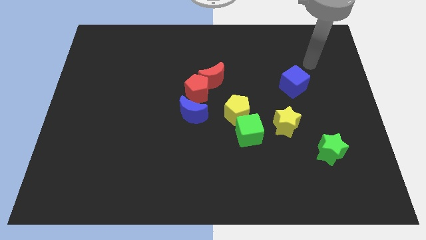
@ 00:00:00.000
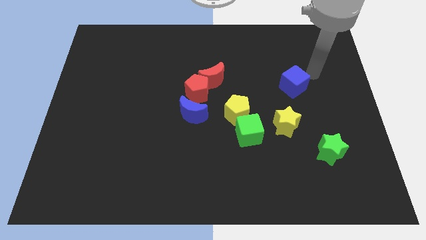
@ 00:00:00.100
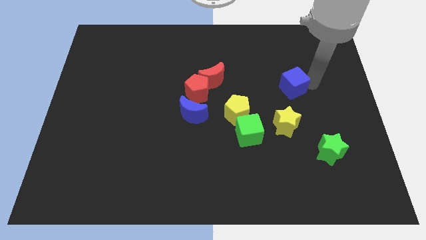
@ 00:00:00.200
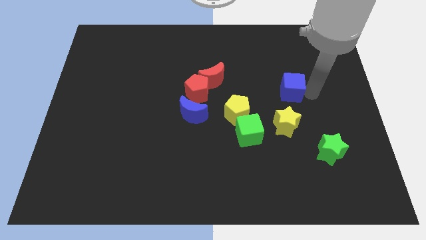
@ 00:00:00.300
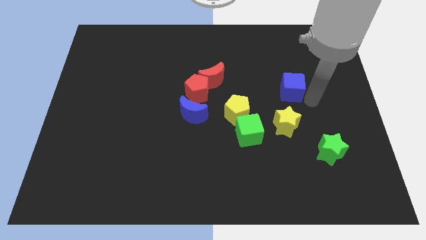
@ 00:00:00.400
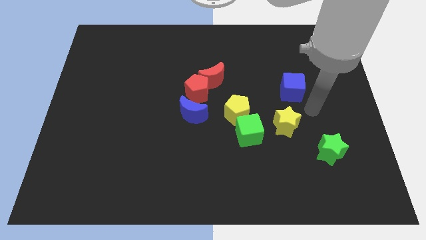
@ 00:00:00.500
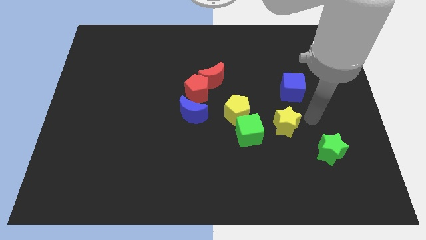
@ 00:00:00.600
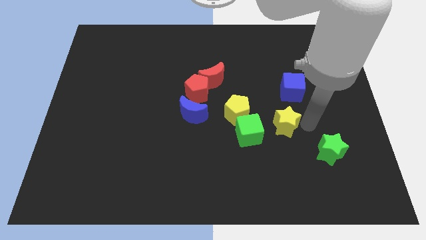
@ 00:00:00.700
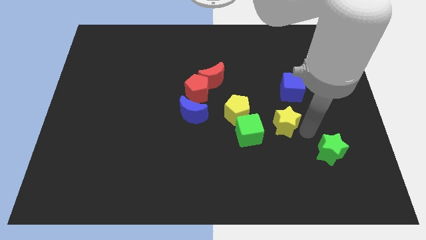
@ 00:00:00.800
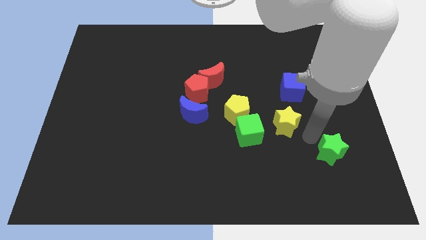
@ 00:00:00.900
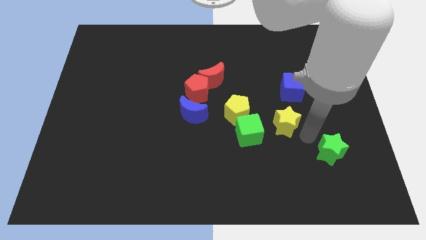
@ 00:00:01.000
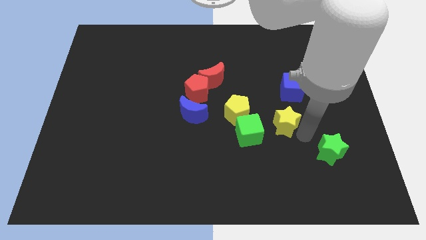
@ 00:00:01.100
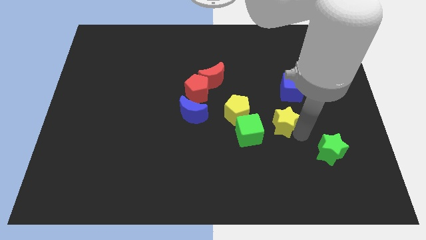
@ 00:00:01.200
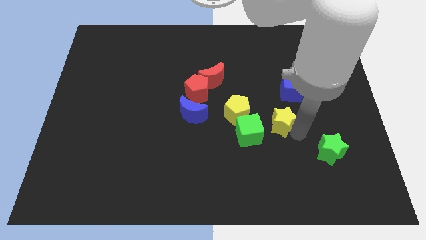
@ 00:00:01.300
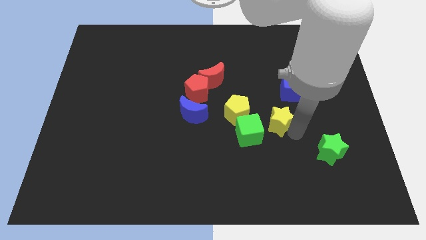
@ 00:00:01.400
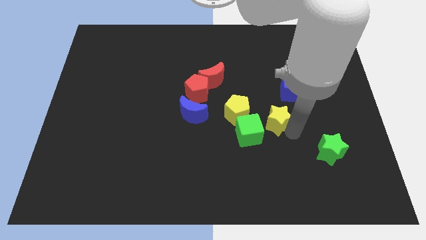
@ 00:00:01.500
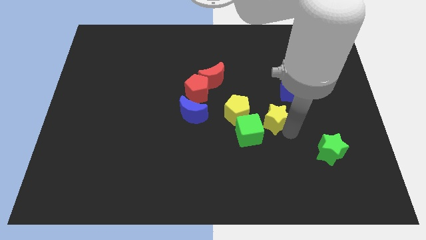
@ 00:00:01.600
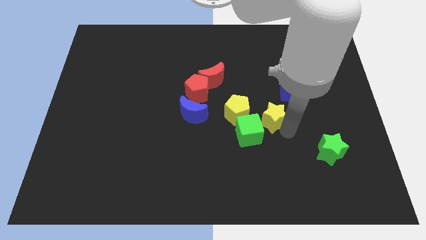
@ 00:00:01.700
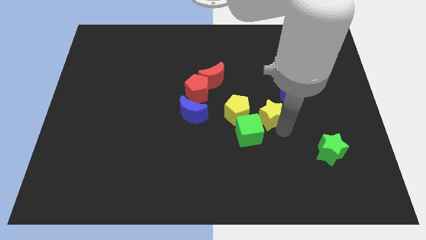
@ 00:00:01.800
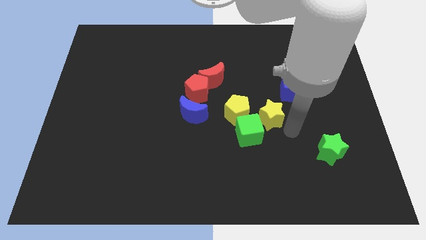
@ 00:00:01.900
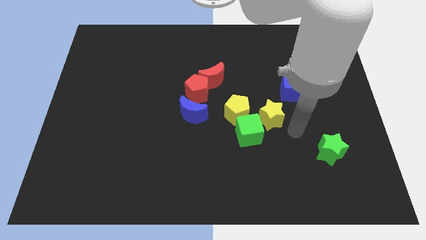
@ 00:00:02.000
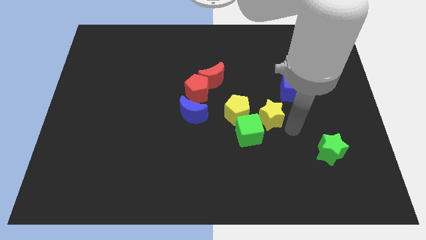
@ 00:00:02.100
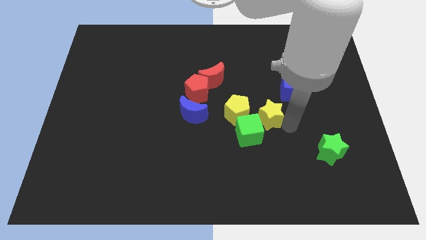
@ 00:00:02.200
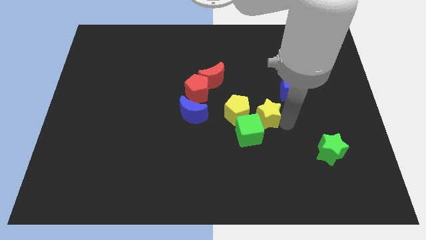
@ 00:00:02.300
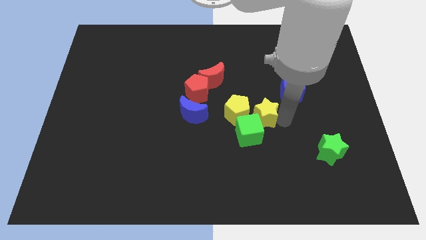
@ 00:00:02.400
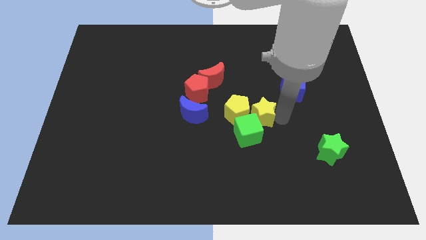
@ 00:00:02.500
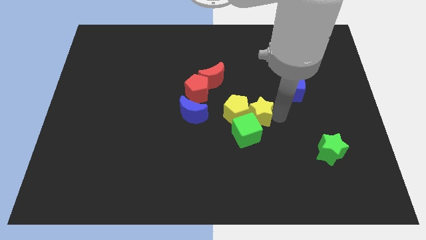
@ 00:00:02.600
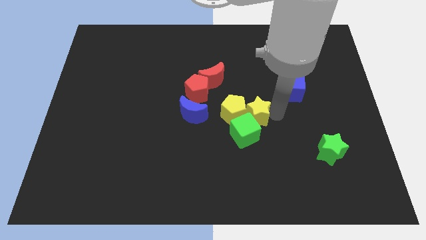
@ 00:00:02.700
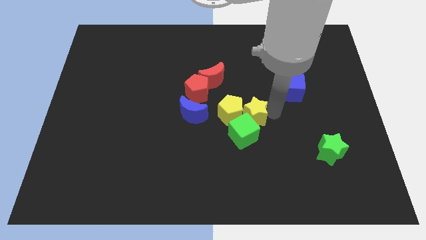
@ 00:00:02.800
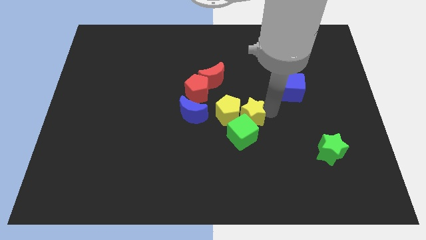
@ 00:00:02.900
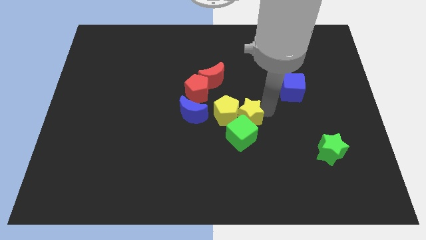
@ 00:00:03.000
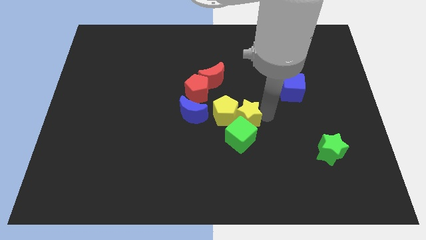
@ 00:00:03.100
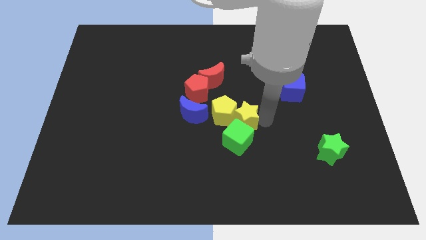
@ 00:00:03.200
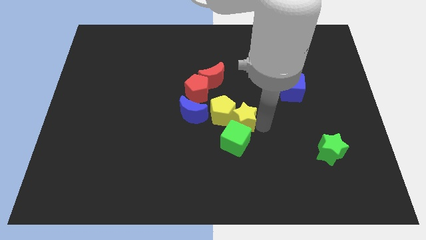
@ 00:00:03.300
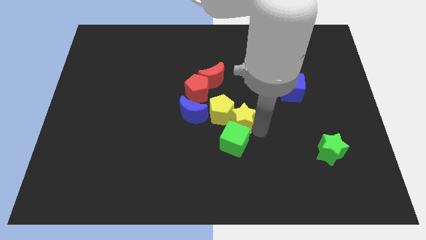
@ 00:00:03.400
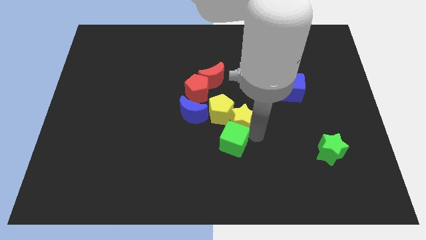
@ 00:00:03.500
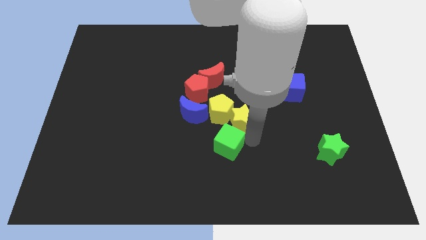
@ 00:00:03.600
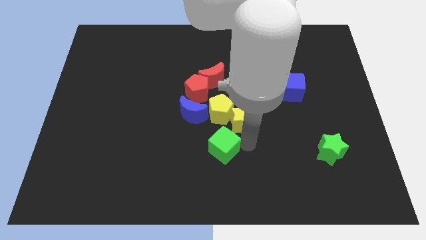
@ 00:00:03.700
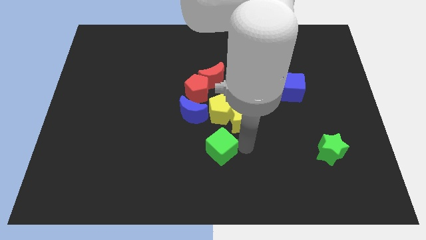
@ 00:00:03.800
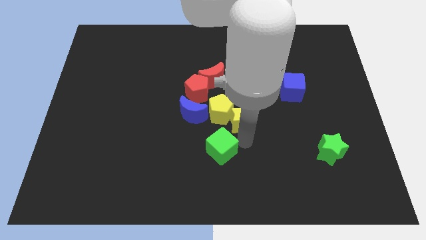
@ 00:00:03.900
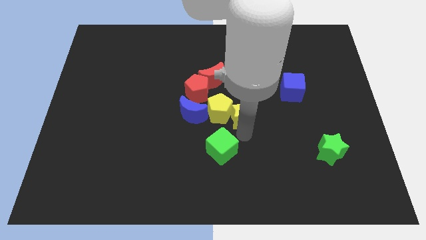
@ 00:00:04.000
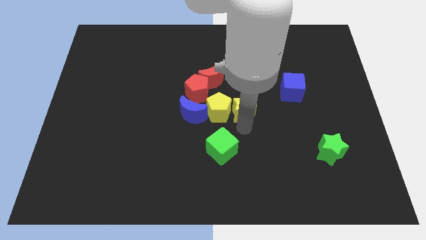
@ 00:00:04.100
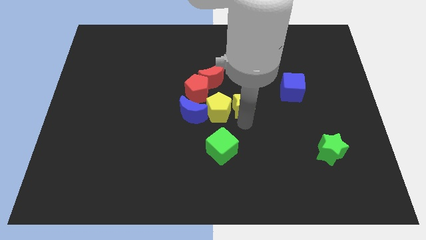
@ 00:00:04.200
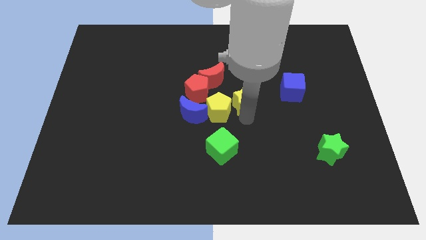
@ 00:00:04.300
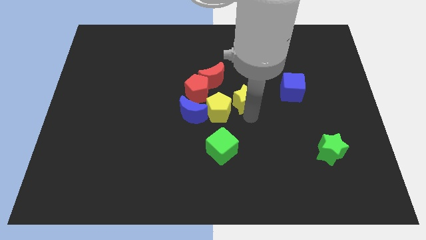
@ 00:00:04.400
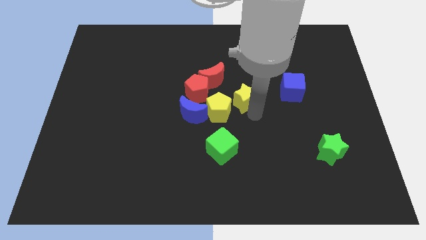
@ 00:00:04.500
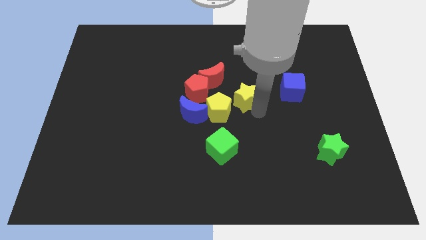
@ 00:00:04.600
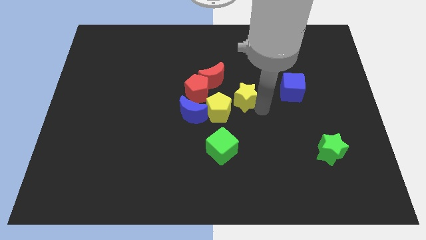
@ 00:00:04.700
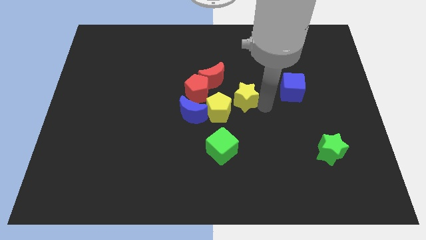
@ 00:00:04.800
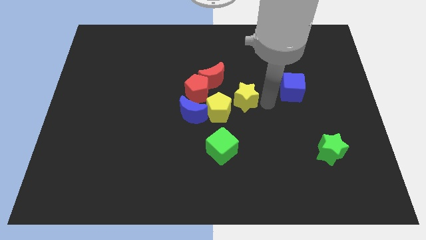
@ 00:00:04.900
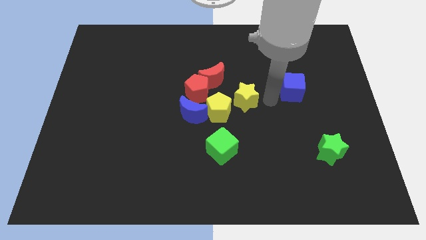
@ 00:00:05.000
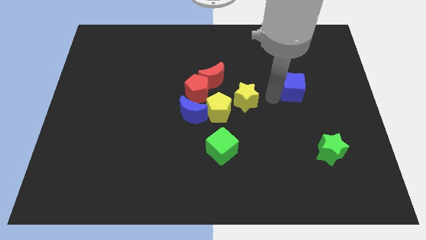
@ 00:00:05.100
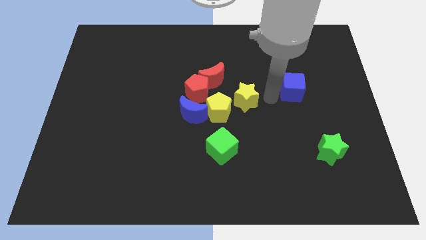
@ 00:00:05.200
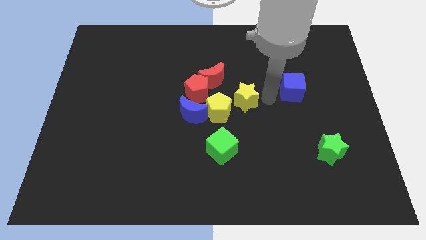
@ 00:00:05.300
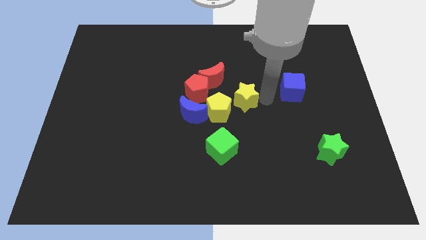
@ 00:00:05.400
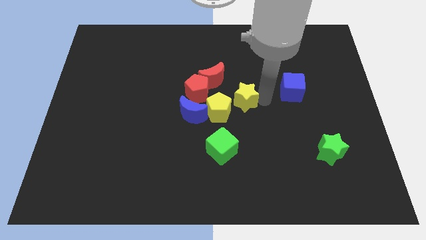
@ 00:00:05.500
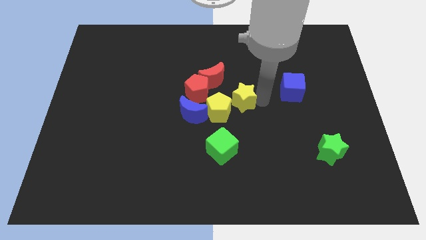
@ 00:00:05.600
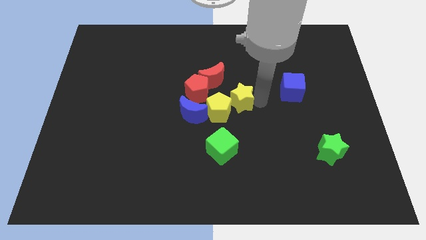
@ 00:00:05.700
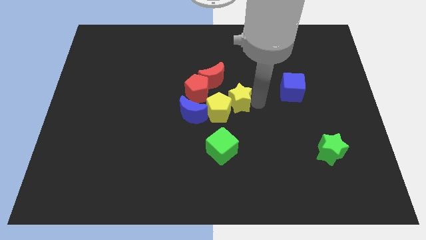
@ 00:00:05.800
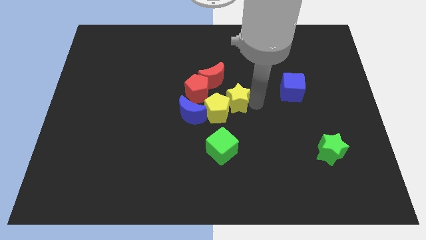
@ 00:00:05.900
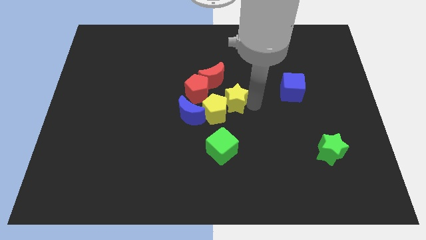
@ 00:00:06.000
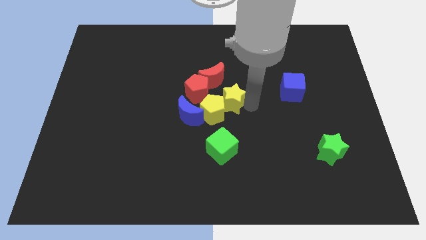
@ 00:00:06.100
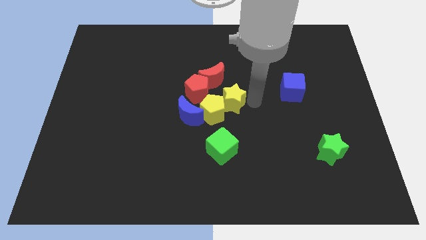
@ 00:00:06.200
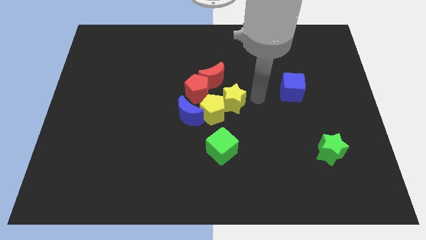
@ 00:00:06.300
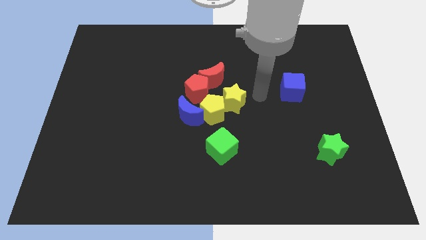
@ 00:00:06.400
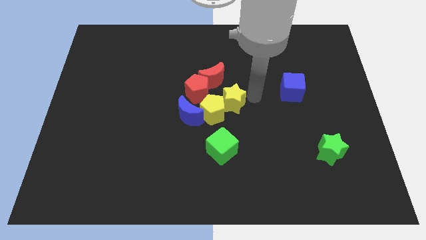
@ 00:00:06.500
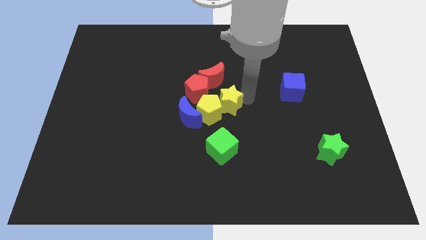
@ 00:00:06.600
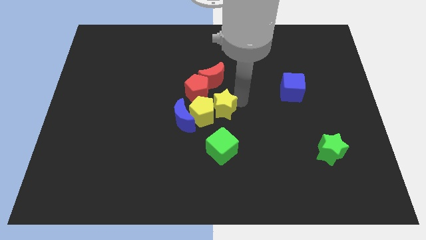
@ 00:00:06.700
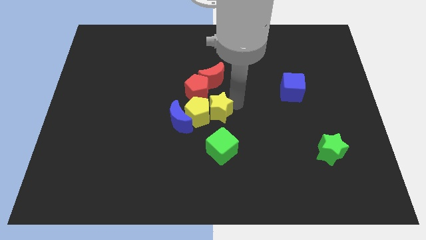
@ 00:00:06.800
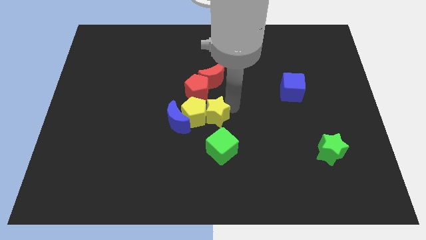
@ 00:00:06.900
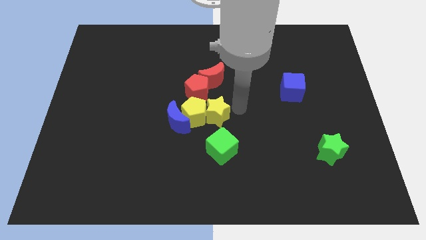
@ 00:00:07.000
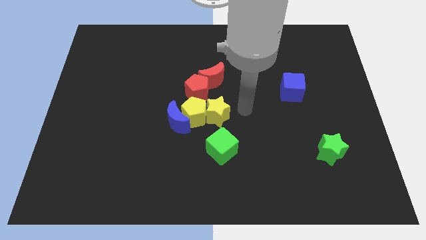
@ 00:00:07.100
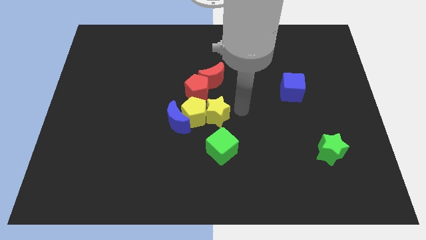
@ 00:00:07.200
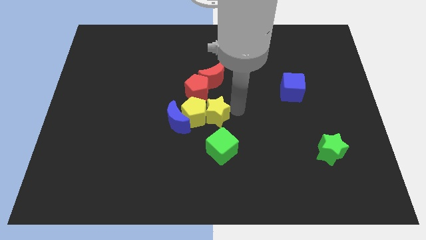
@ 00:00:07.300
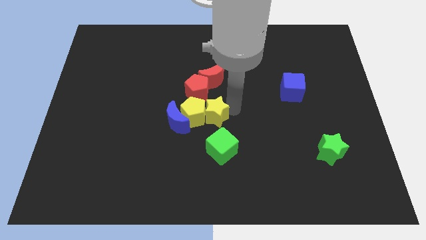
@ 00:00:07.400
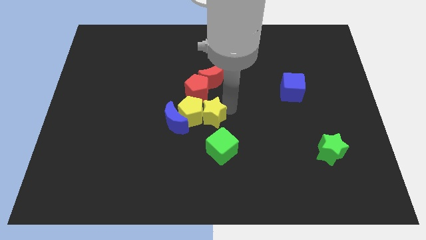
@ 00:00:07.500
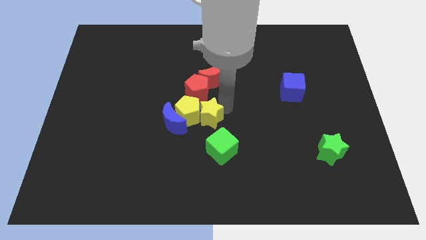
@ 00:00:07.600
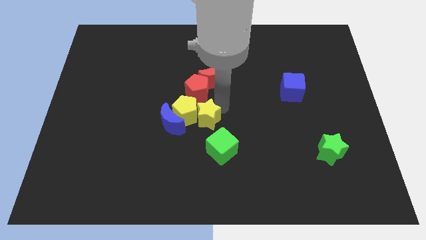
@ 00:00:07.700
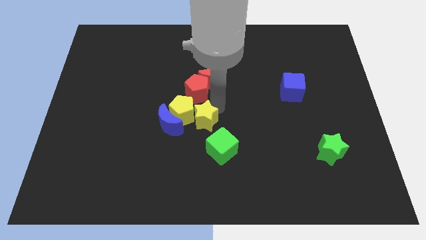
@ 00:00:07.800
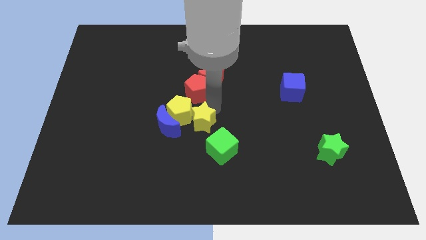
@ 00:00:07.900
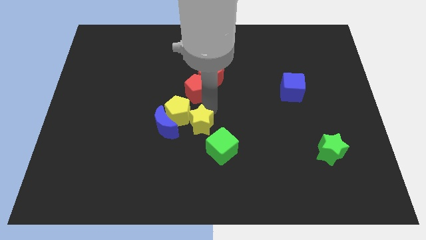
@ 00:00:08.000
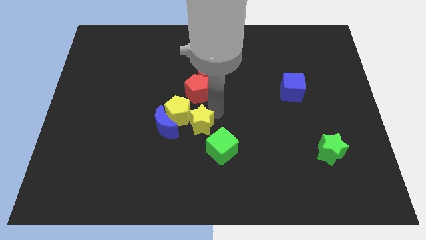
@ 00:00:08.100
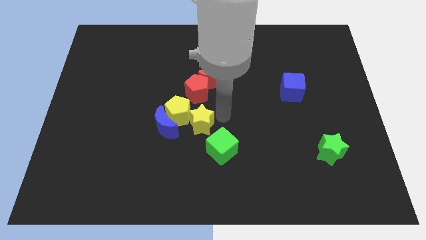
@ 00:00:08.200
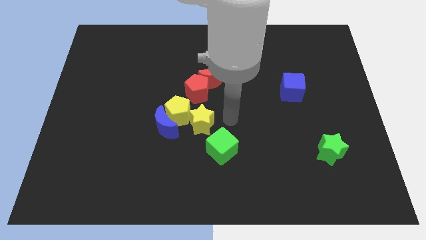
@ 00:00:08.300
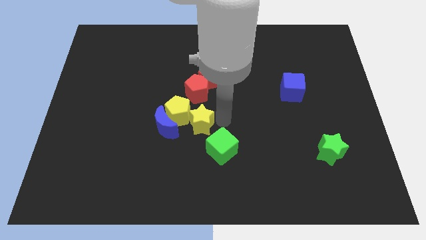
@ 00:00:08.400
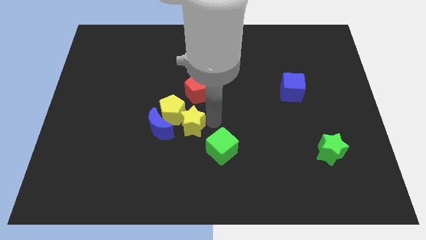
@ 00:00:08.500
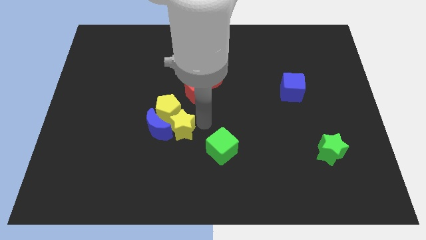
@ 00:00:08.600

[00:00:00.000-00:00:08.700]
push the yellow star towards the blue moon
